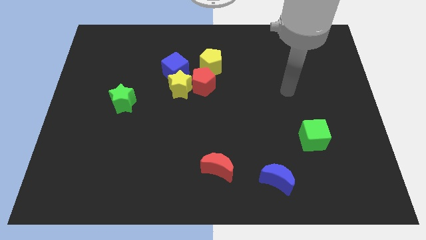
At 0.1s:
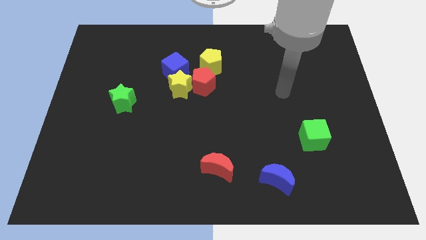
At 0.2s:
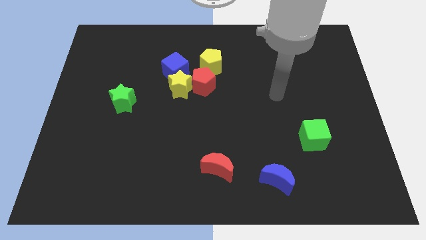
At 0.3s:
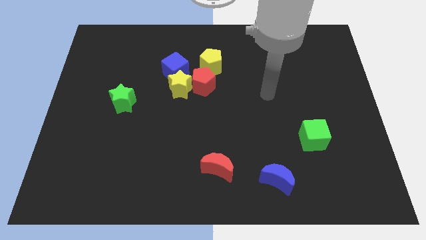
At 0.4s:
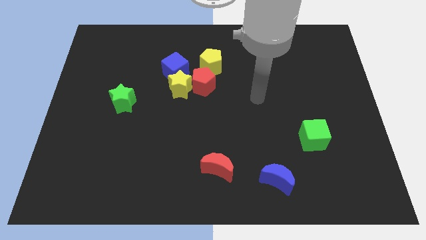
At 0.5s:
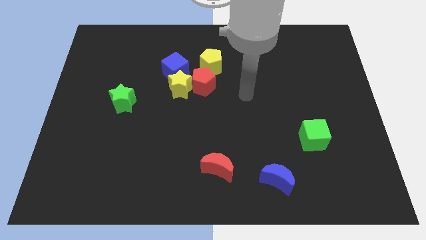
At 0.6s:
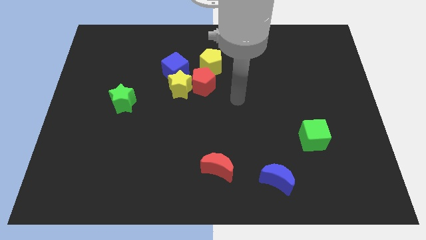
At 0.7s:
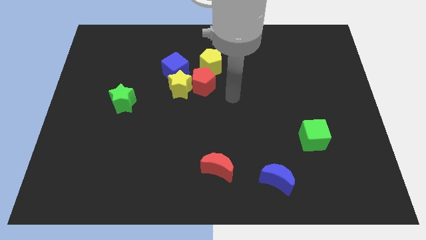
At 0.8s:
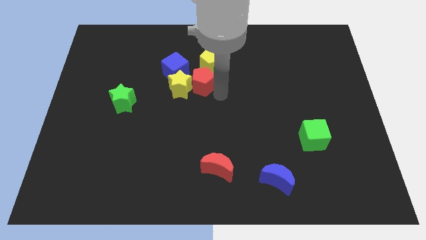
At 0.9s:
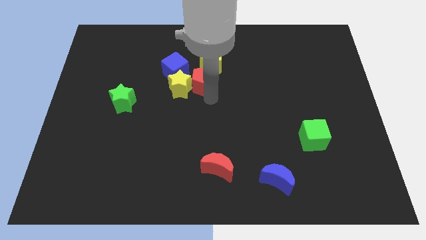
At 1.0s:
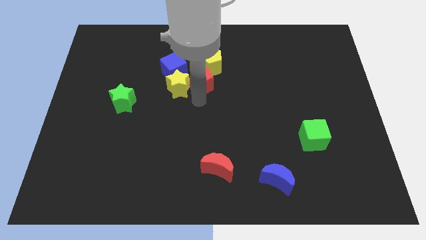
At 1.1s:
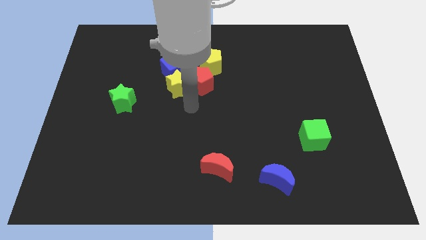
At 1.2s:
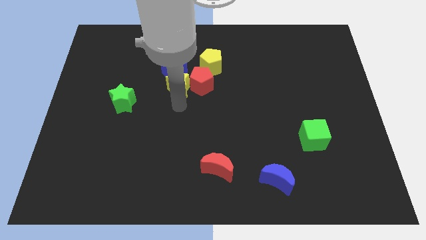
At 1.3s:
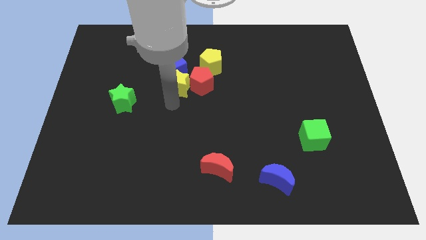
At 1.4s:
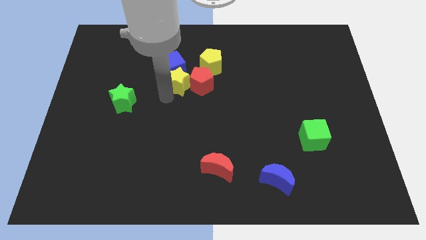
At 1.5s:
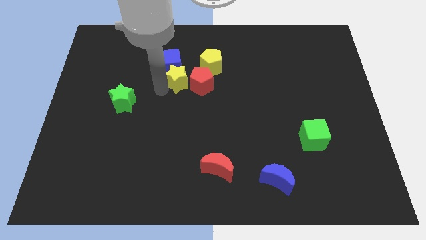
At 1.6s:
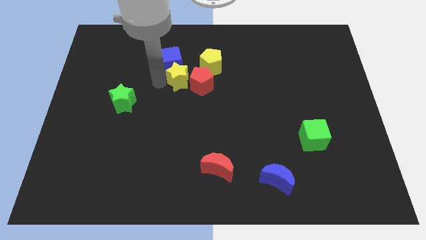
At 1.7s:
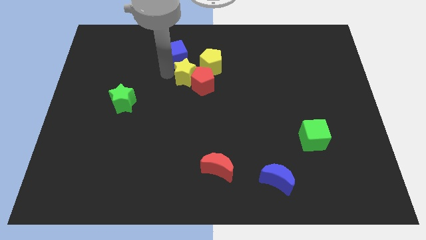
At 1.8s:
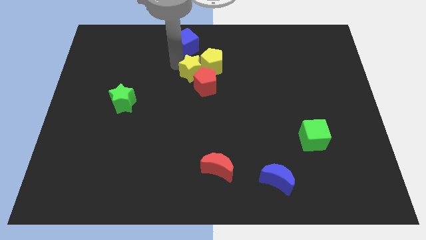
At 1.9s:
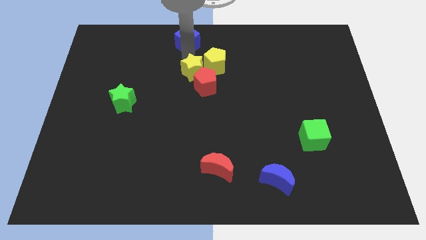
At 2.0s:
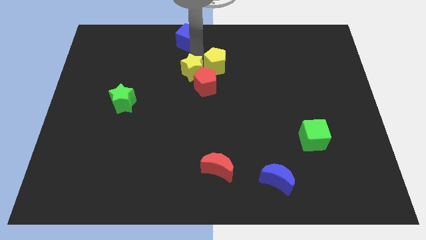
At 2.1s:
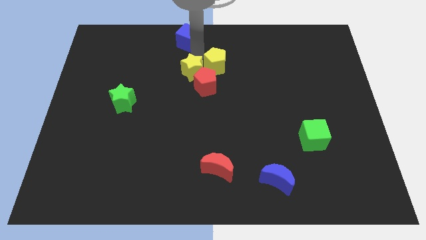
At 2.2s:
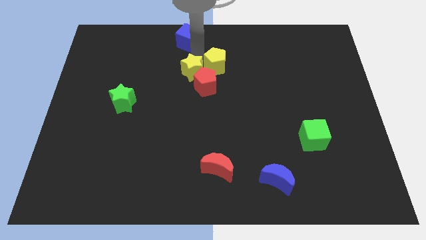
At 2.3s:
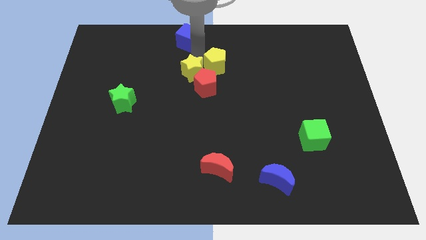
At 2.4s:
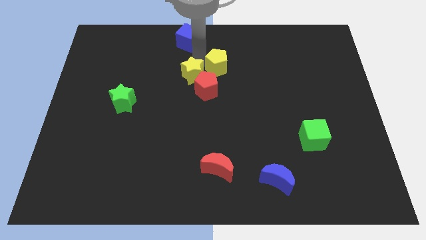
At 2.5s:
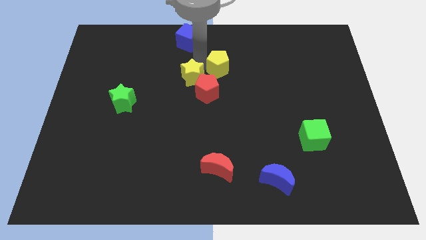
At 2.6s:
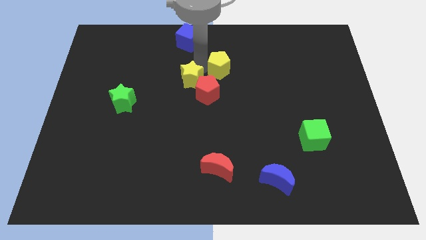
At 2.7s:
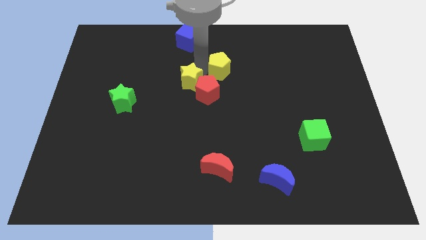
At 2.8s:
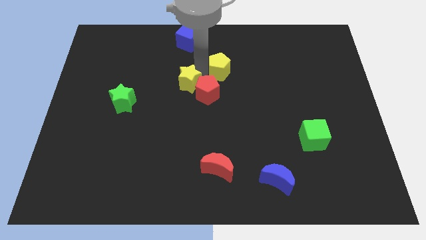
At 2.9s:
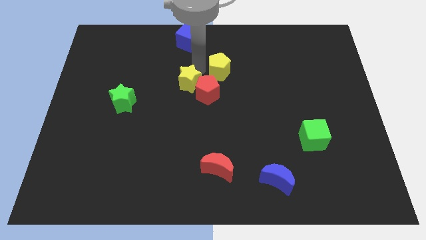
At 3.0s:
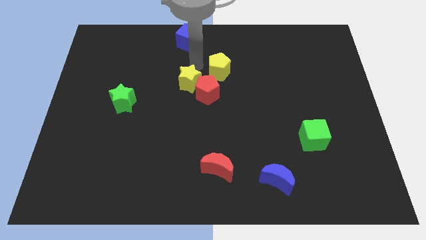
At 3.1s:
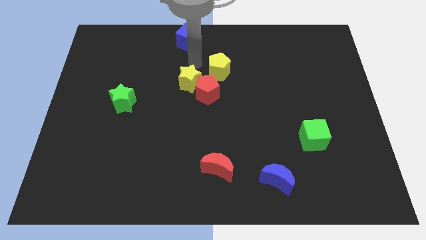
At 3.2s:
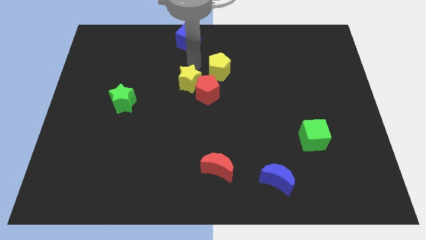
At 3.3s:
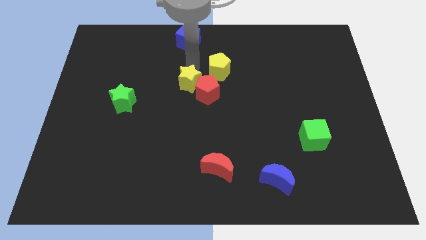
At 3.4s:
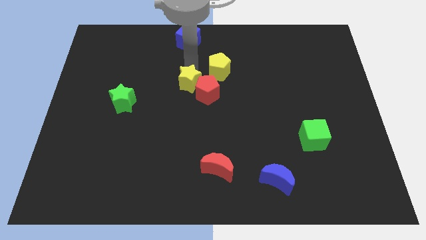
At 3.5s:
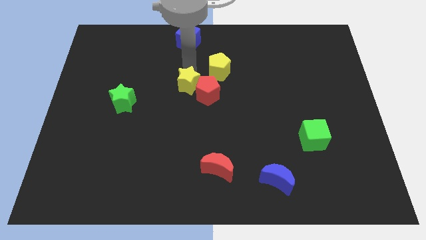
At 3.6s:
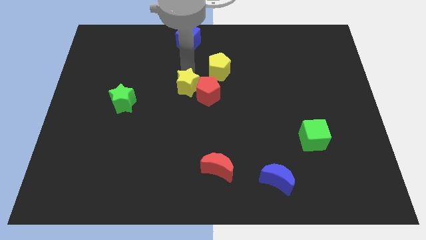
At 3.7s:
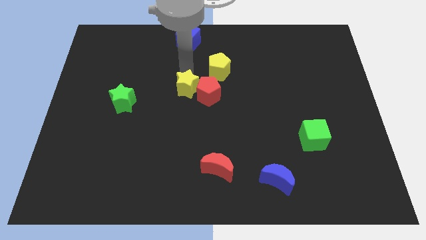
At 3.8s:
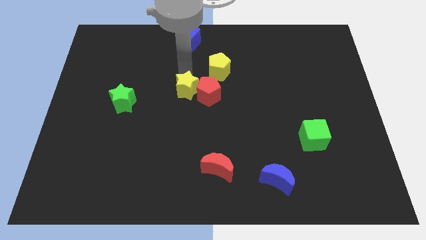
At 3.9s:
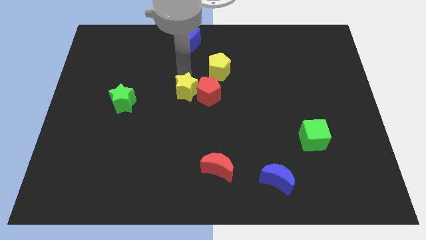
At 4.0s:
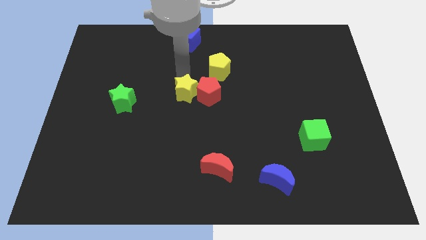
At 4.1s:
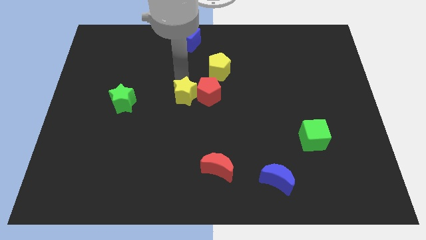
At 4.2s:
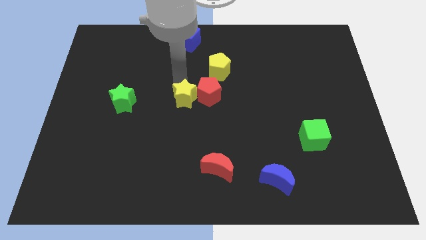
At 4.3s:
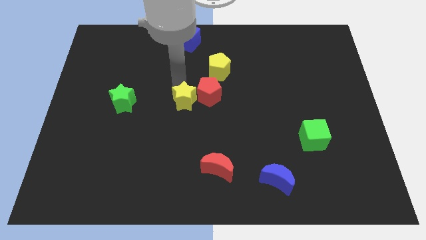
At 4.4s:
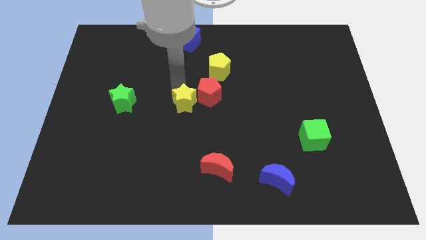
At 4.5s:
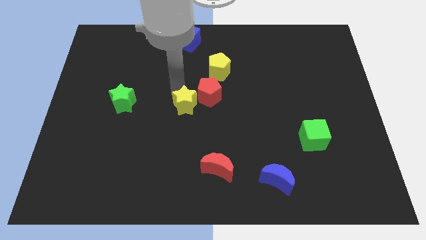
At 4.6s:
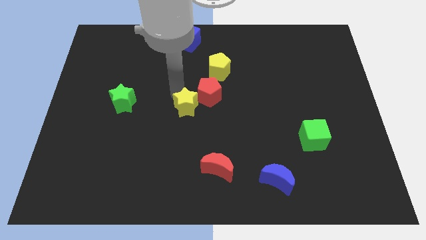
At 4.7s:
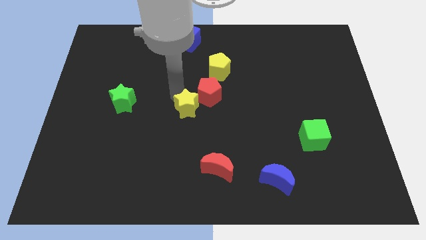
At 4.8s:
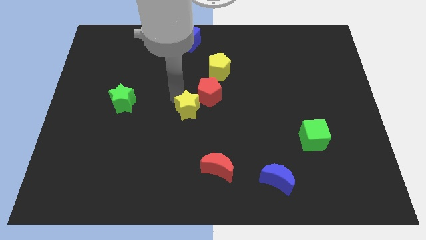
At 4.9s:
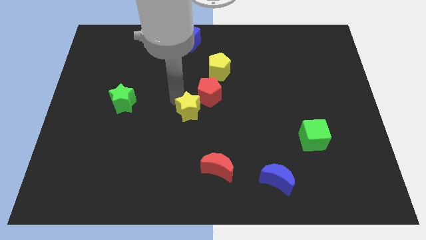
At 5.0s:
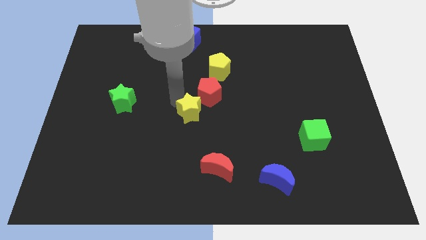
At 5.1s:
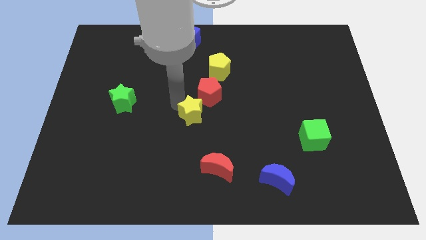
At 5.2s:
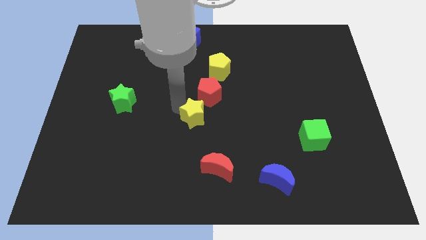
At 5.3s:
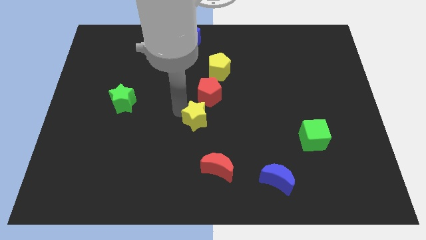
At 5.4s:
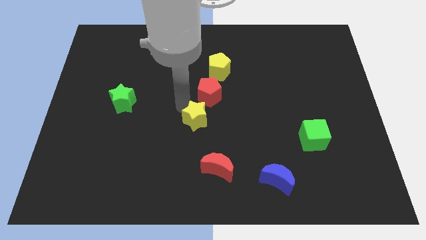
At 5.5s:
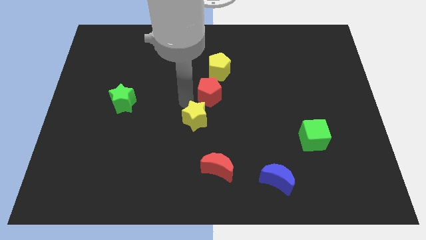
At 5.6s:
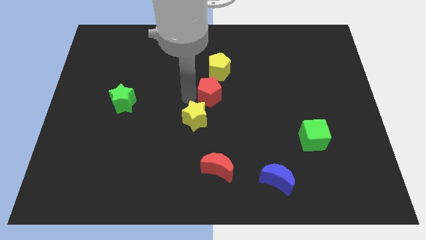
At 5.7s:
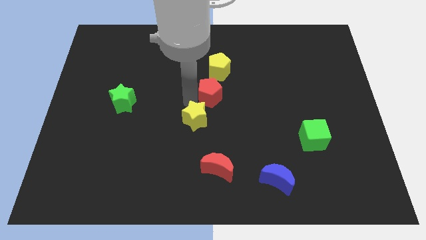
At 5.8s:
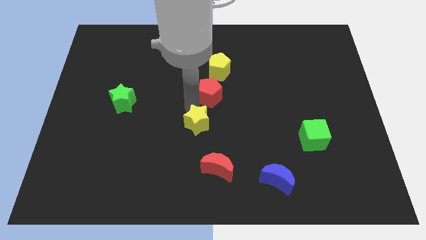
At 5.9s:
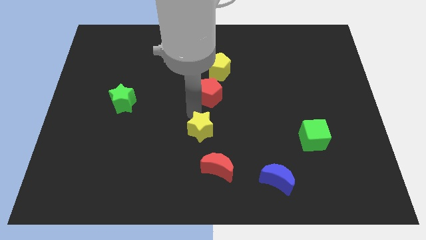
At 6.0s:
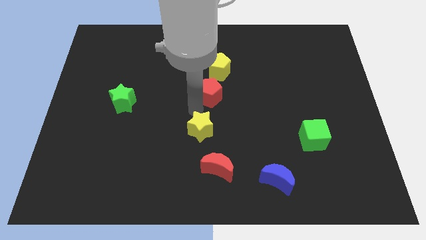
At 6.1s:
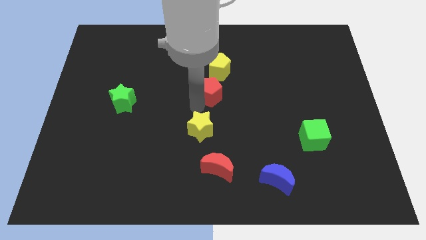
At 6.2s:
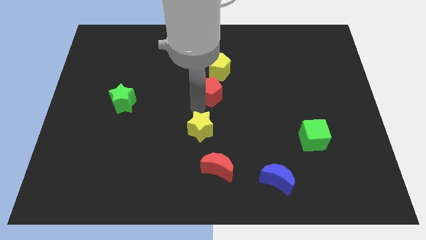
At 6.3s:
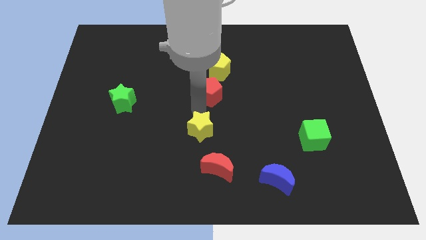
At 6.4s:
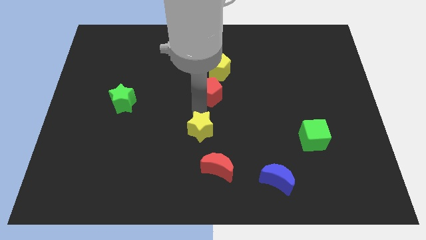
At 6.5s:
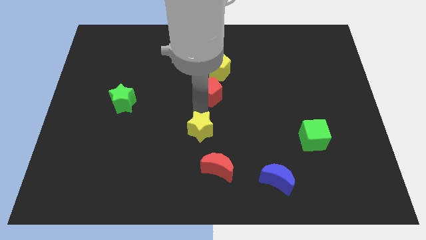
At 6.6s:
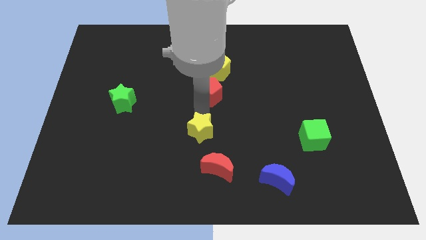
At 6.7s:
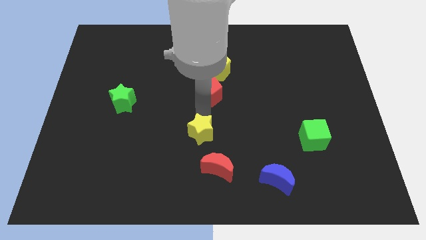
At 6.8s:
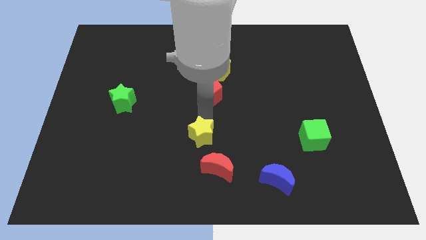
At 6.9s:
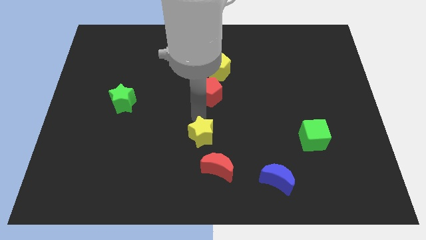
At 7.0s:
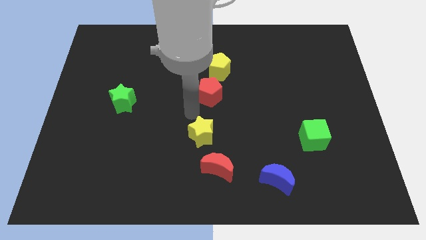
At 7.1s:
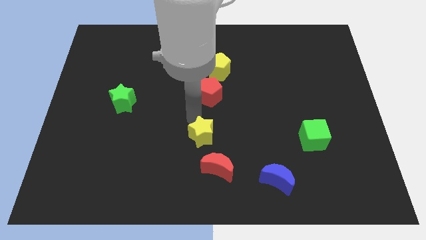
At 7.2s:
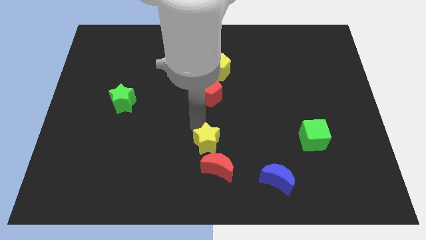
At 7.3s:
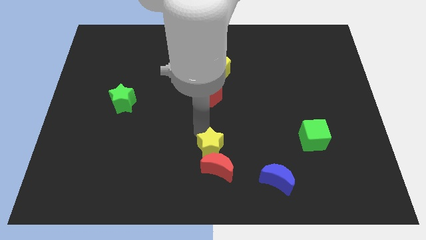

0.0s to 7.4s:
slide the yellow star to the red moon

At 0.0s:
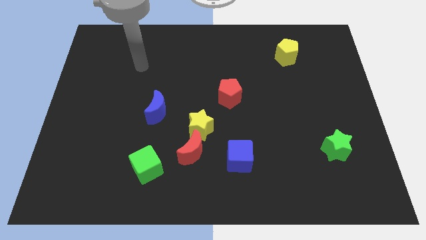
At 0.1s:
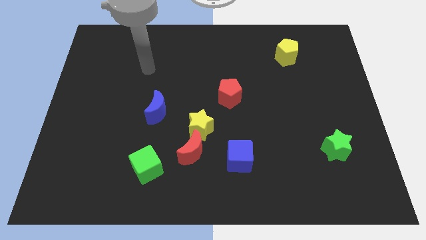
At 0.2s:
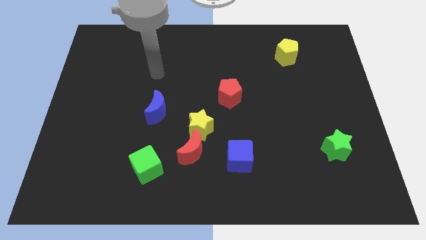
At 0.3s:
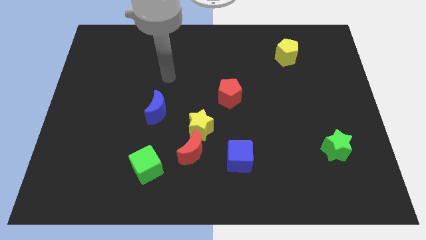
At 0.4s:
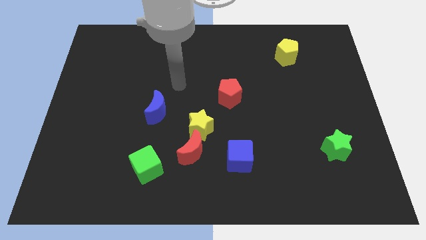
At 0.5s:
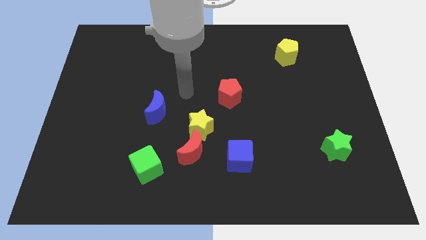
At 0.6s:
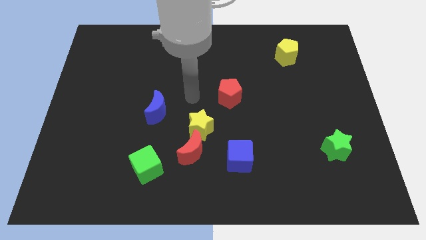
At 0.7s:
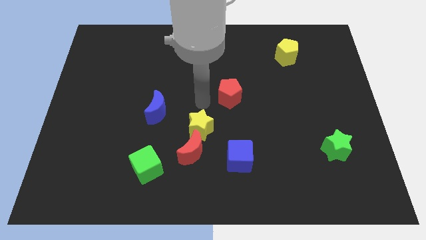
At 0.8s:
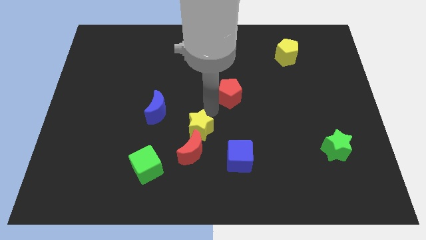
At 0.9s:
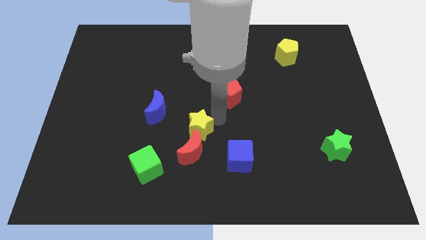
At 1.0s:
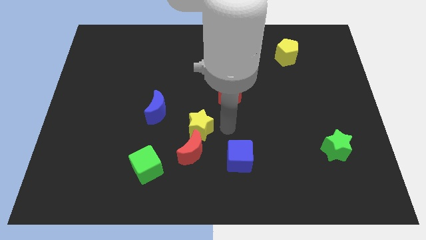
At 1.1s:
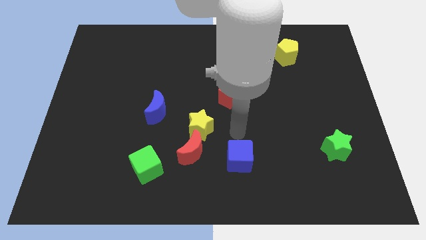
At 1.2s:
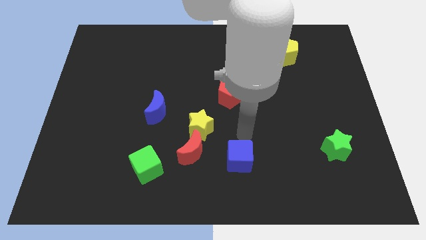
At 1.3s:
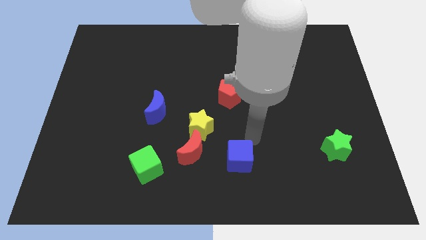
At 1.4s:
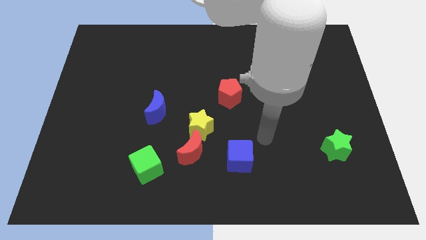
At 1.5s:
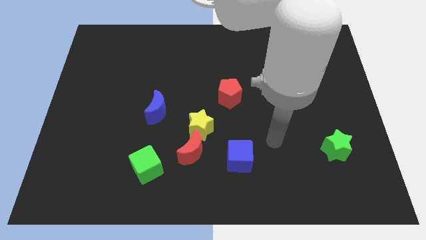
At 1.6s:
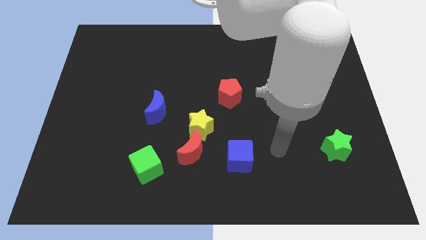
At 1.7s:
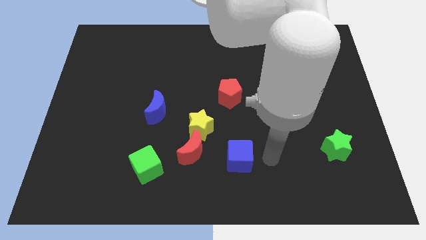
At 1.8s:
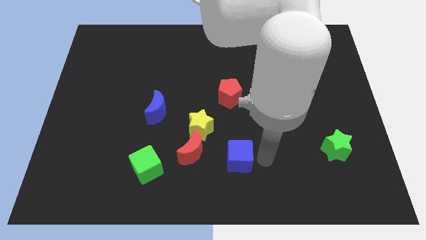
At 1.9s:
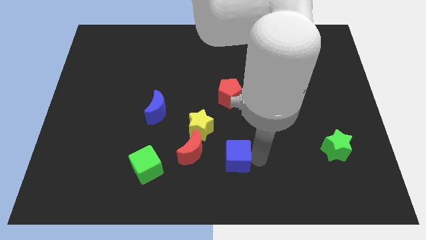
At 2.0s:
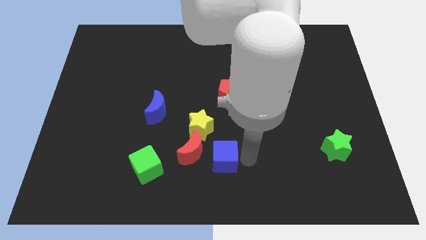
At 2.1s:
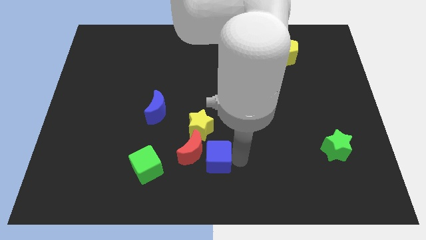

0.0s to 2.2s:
slide the blue cube next to the red moon
